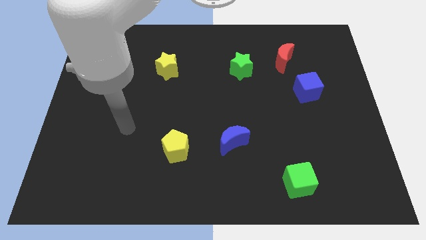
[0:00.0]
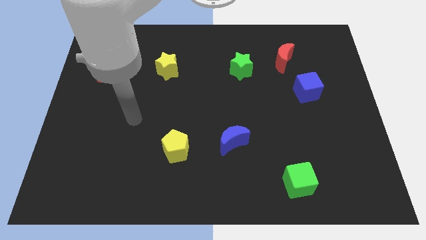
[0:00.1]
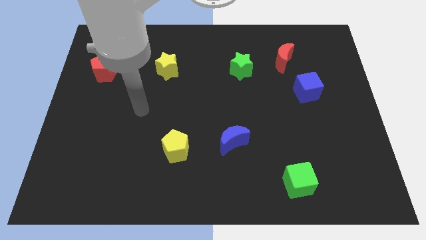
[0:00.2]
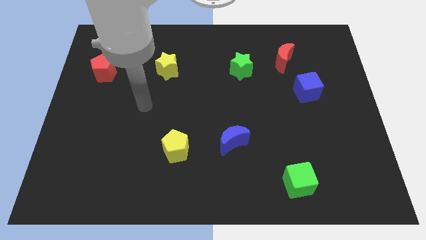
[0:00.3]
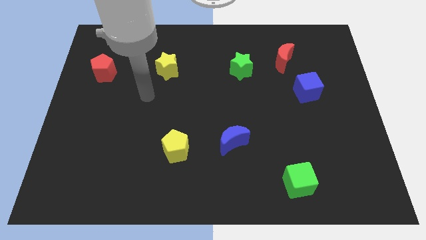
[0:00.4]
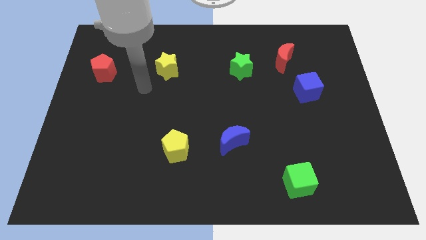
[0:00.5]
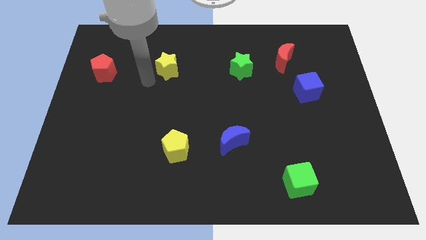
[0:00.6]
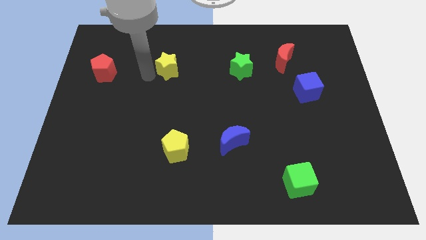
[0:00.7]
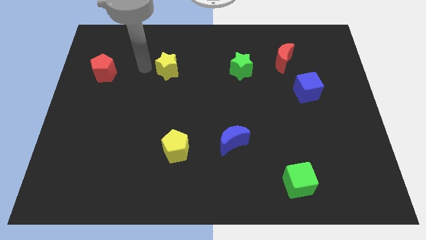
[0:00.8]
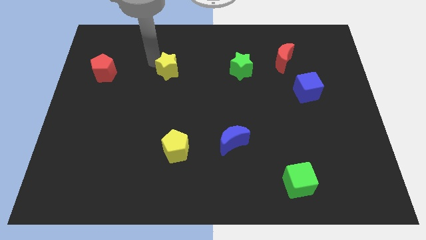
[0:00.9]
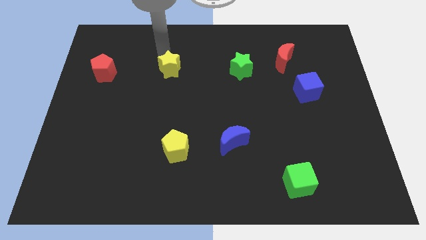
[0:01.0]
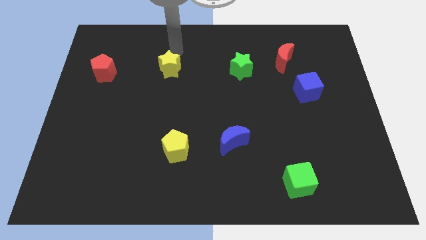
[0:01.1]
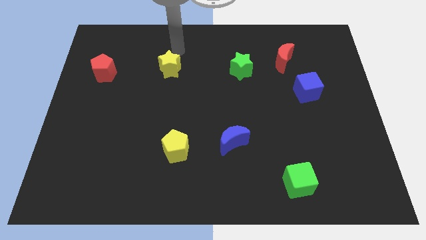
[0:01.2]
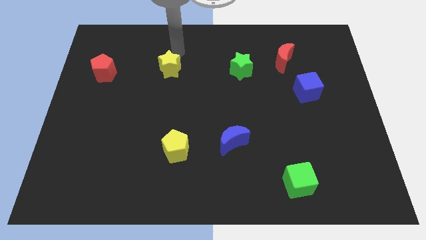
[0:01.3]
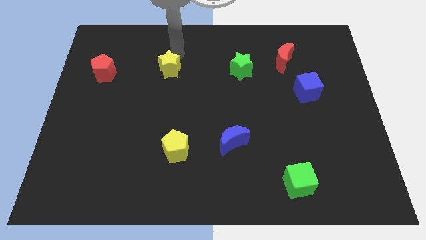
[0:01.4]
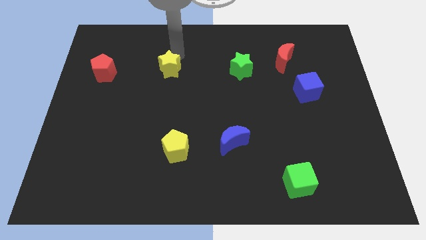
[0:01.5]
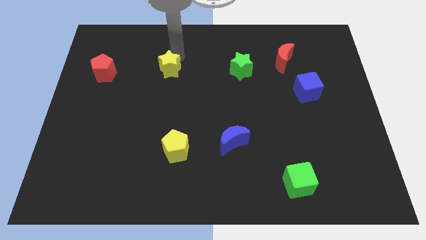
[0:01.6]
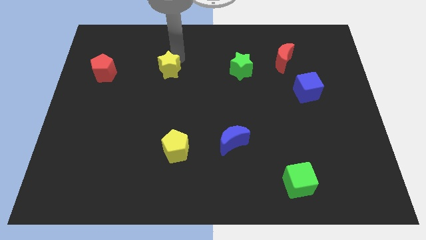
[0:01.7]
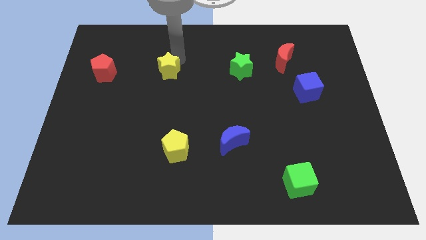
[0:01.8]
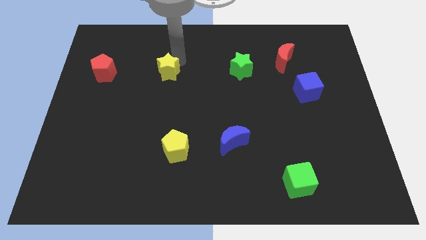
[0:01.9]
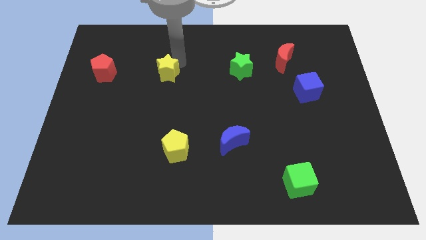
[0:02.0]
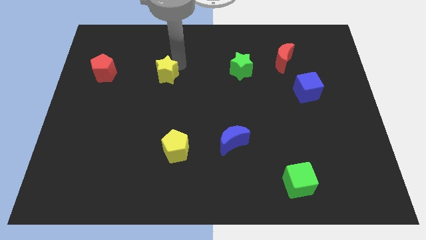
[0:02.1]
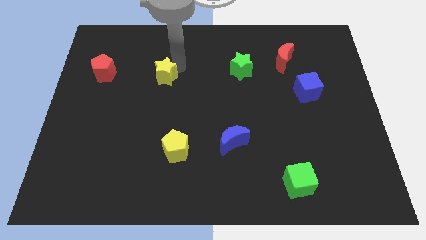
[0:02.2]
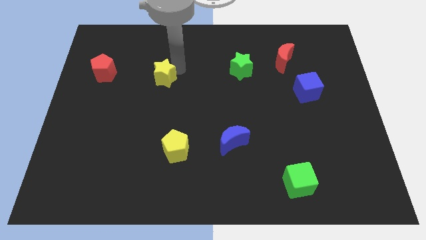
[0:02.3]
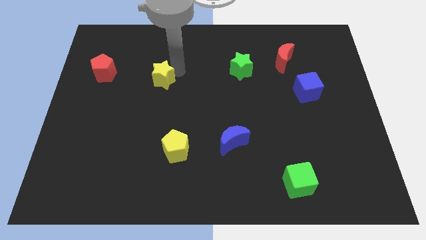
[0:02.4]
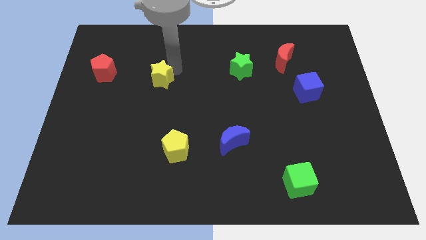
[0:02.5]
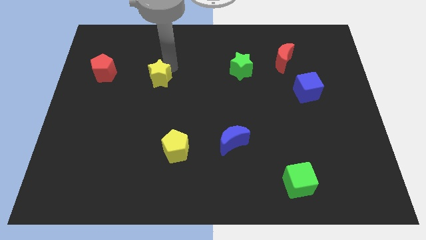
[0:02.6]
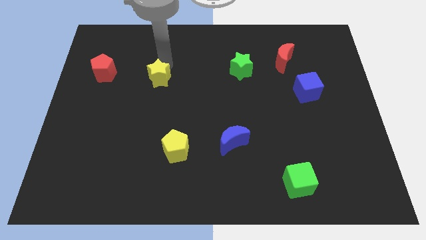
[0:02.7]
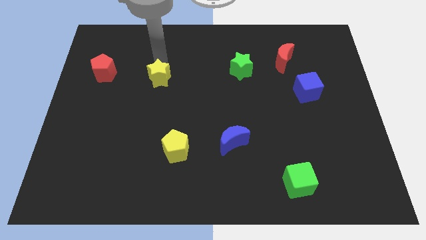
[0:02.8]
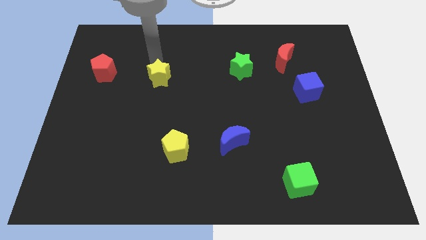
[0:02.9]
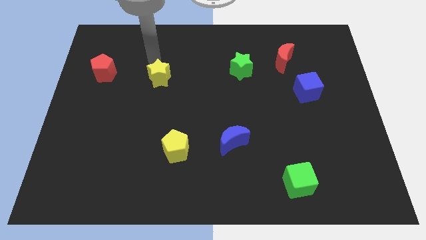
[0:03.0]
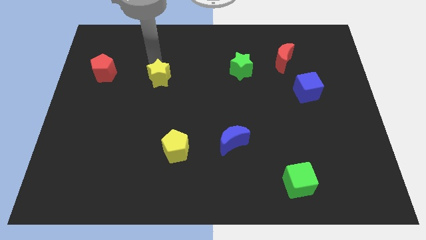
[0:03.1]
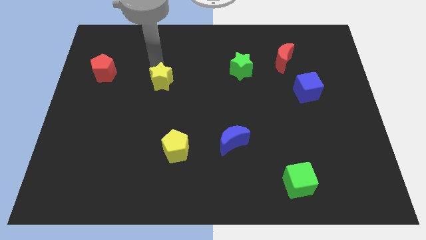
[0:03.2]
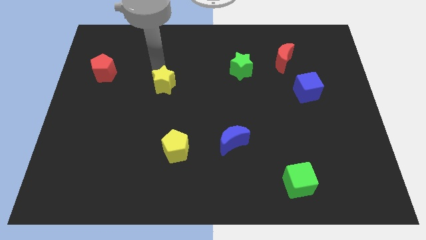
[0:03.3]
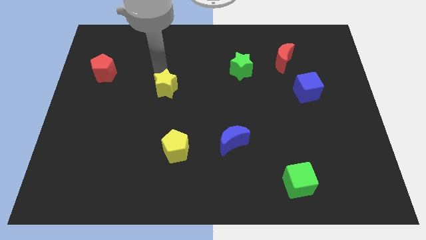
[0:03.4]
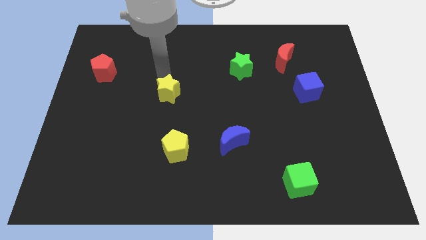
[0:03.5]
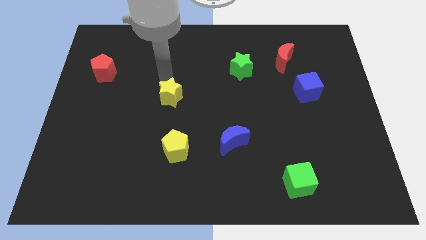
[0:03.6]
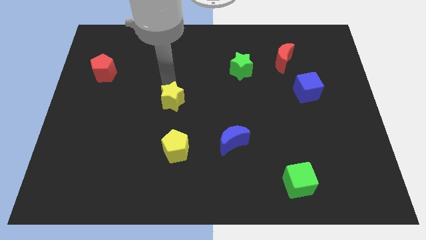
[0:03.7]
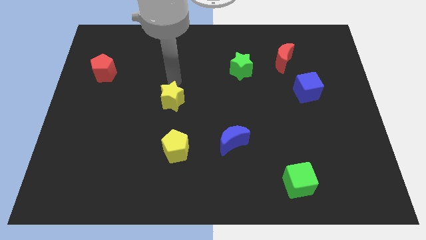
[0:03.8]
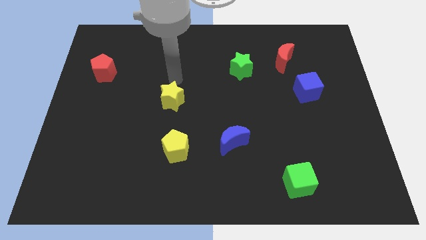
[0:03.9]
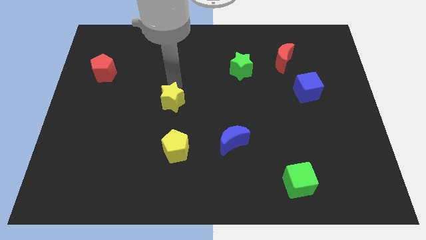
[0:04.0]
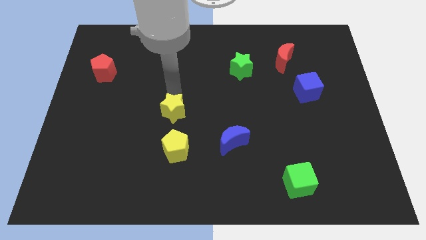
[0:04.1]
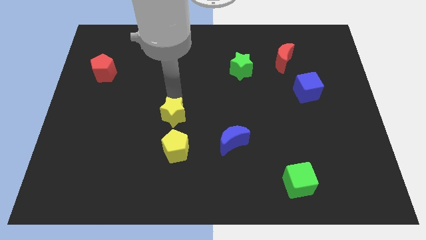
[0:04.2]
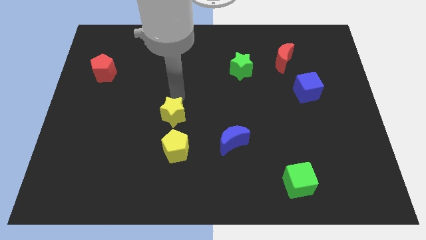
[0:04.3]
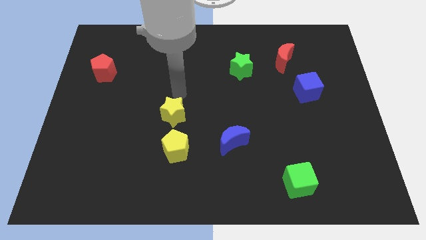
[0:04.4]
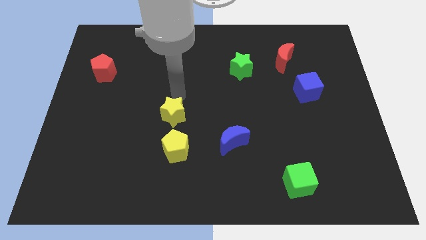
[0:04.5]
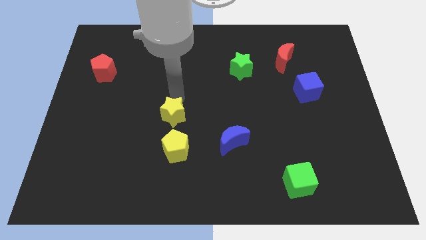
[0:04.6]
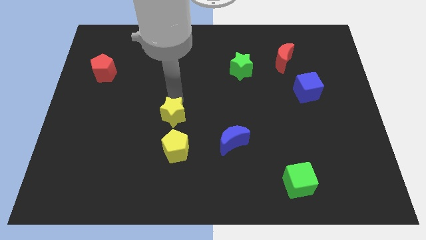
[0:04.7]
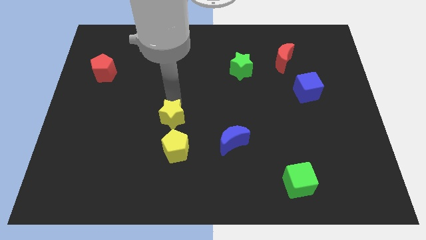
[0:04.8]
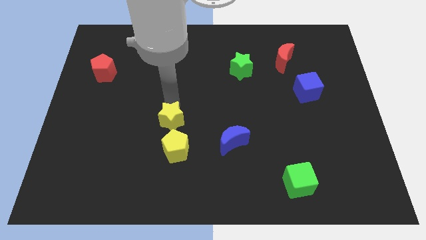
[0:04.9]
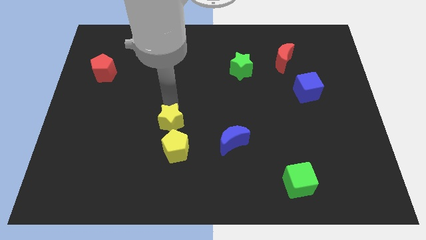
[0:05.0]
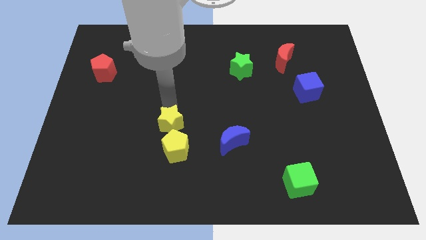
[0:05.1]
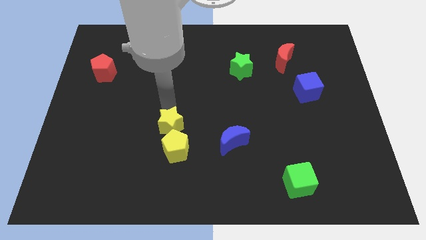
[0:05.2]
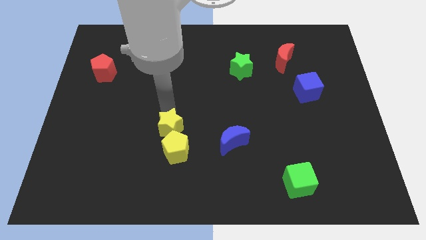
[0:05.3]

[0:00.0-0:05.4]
slide the yellow star close to the yellow pentagon

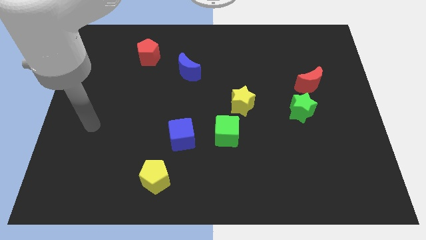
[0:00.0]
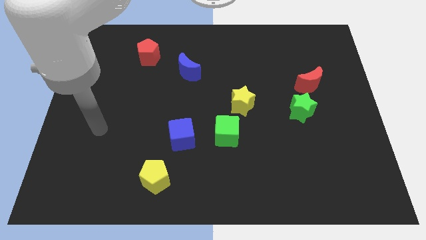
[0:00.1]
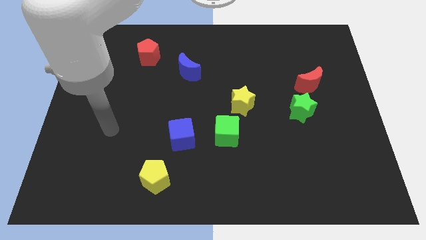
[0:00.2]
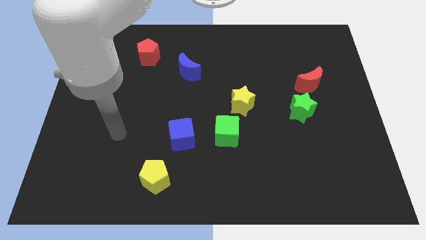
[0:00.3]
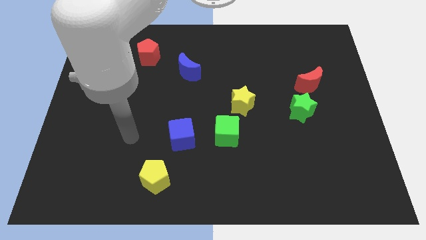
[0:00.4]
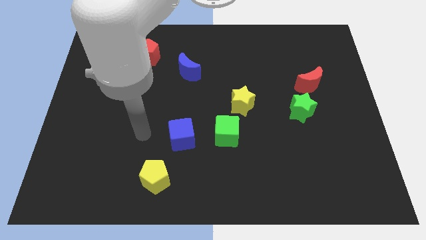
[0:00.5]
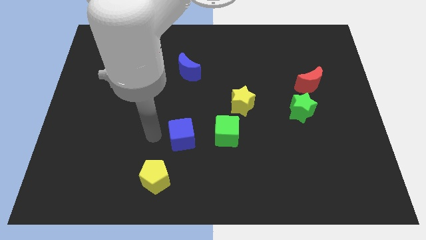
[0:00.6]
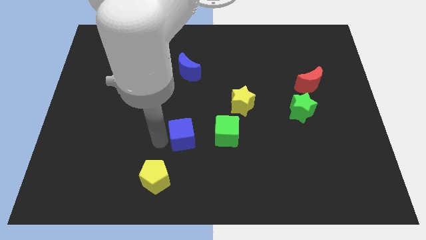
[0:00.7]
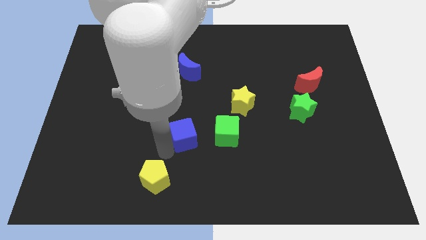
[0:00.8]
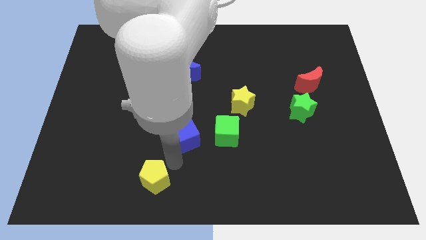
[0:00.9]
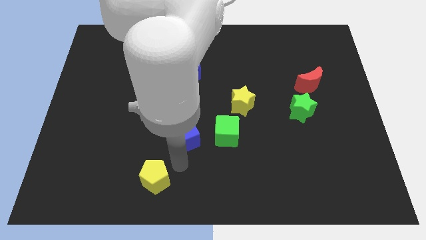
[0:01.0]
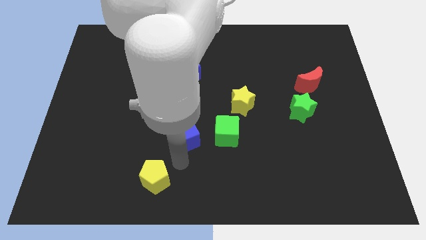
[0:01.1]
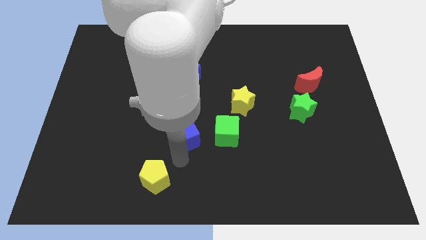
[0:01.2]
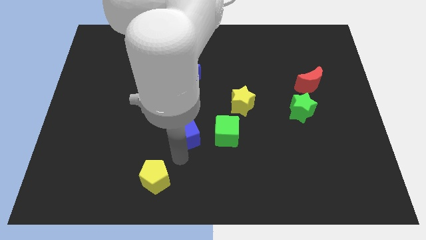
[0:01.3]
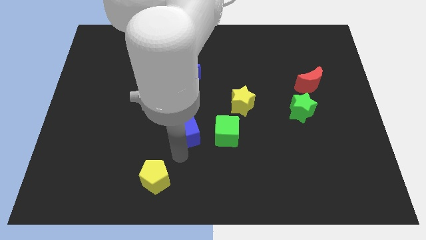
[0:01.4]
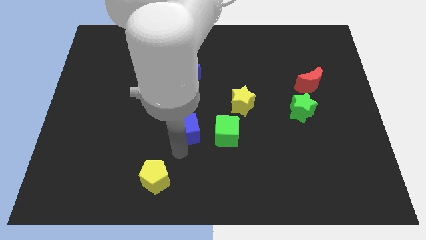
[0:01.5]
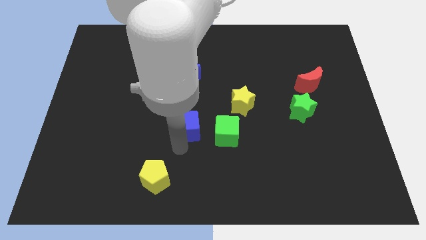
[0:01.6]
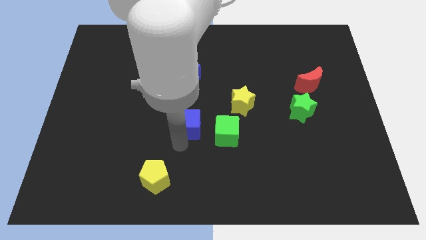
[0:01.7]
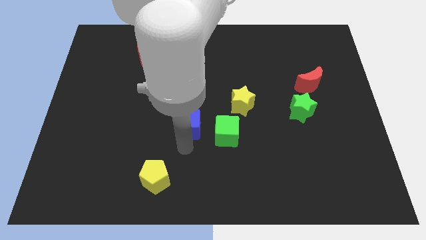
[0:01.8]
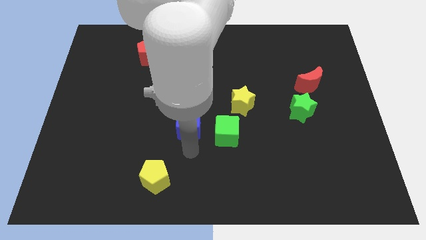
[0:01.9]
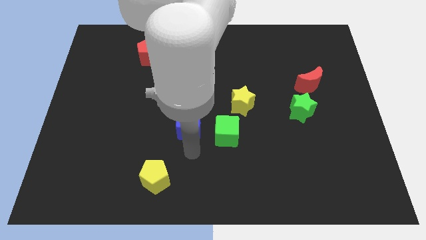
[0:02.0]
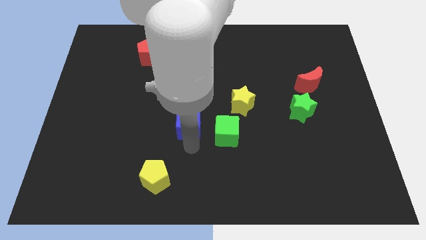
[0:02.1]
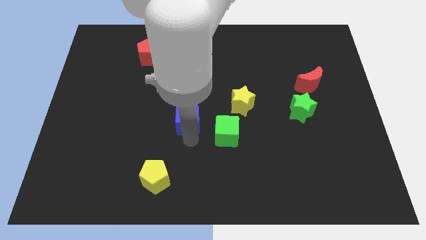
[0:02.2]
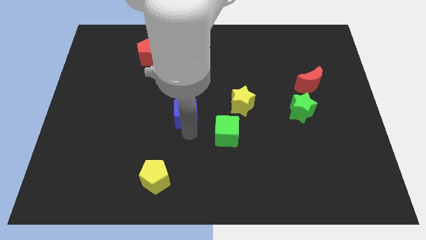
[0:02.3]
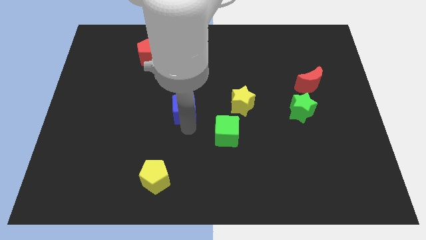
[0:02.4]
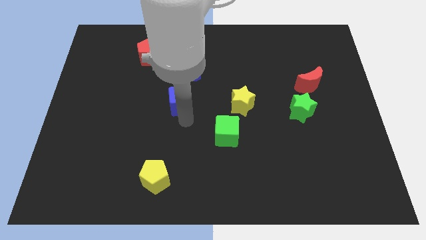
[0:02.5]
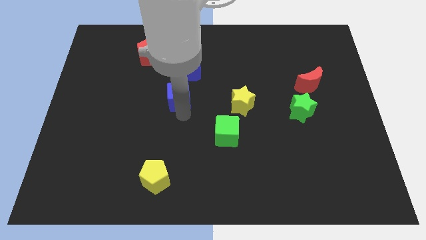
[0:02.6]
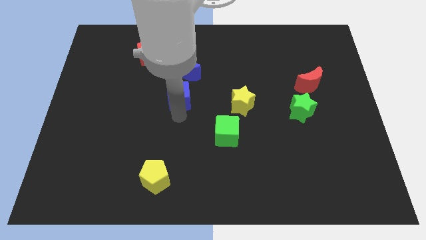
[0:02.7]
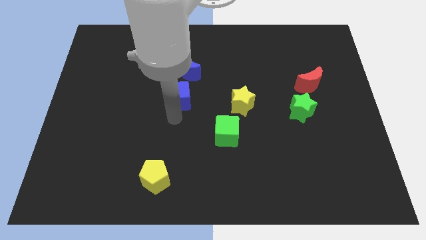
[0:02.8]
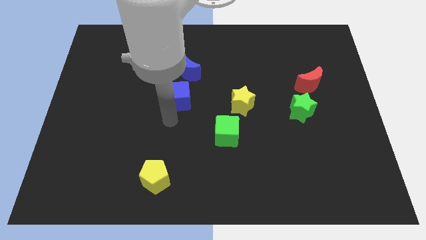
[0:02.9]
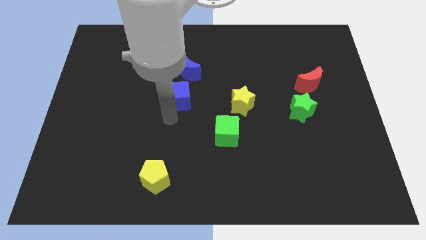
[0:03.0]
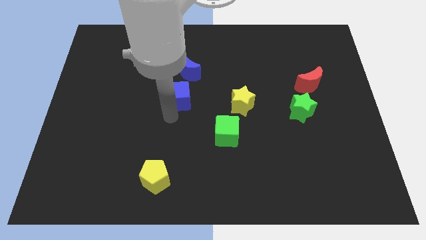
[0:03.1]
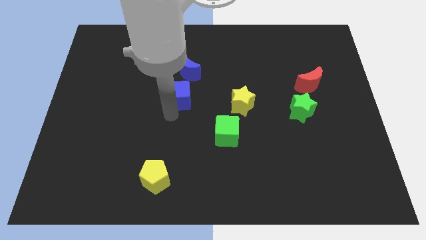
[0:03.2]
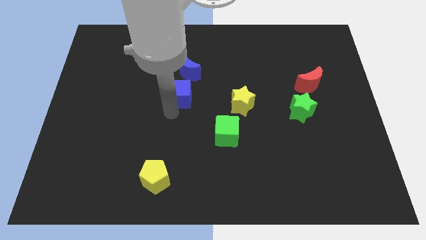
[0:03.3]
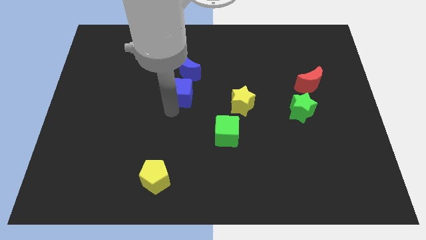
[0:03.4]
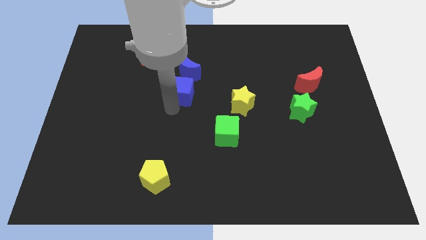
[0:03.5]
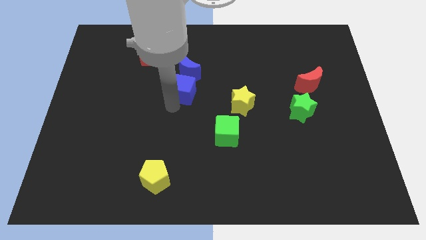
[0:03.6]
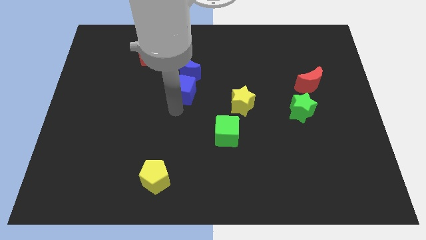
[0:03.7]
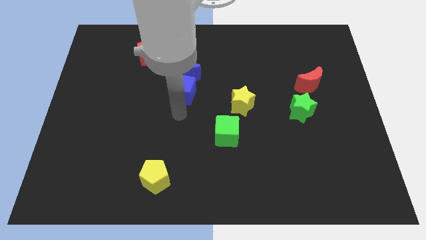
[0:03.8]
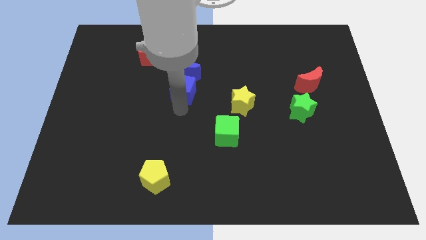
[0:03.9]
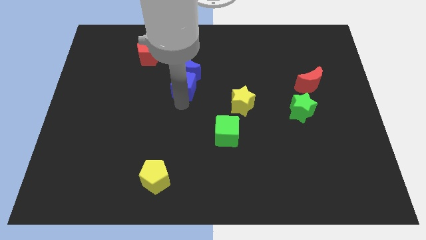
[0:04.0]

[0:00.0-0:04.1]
put the blue cube to the blue moon
